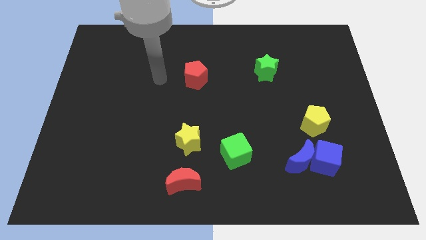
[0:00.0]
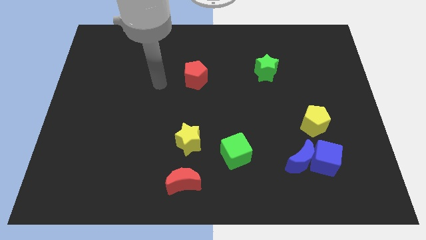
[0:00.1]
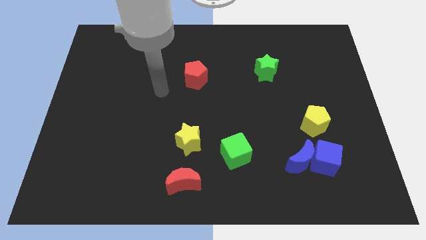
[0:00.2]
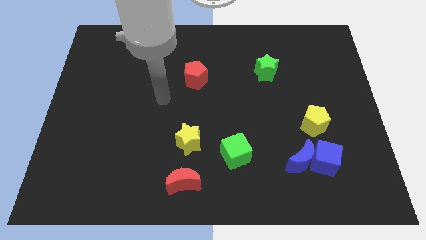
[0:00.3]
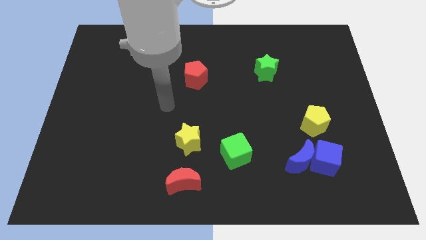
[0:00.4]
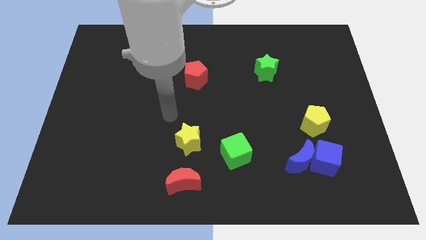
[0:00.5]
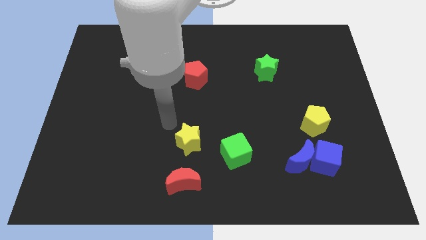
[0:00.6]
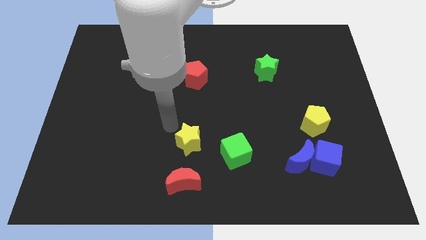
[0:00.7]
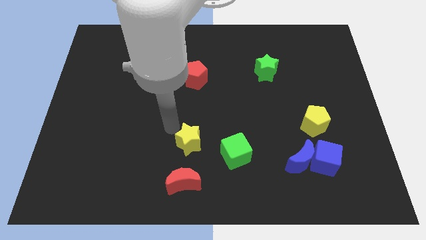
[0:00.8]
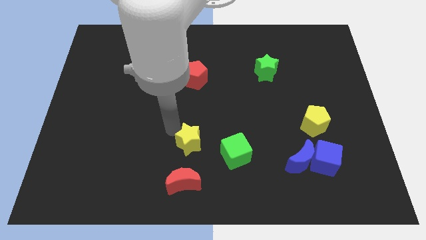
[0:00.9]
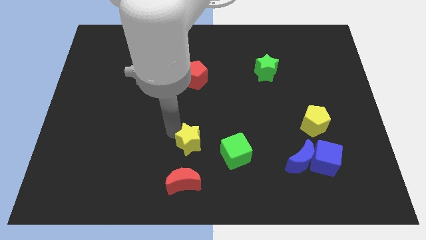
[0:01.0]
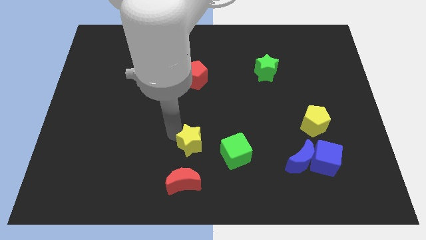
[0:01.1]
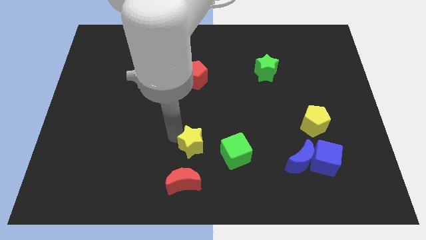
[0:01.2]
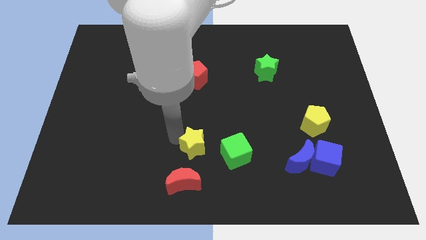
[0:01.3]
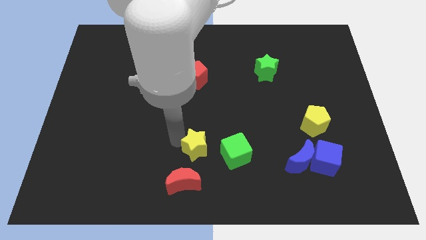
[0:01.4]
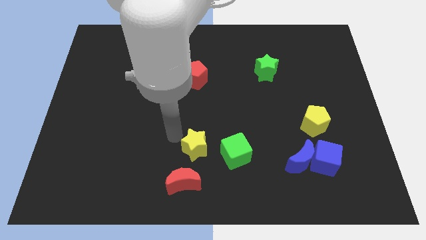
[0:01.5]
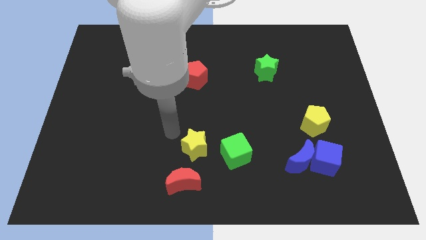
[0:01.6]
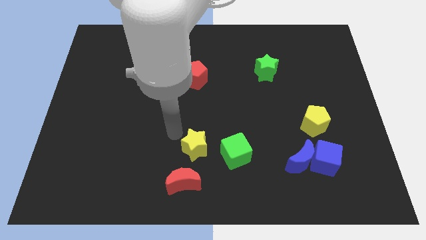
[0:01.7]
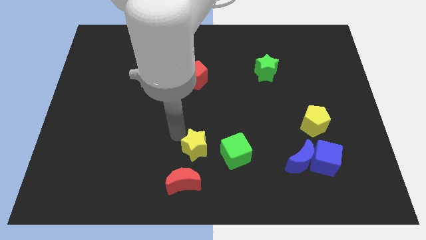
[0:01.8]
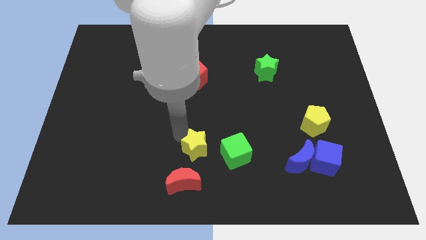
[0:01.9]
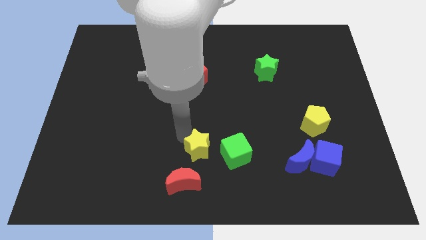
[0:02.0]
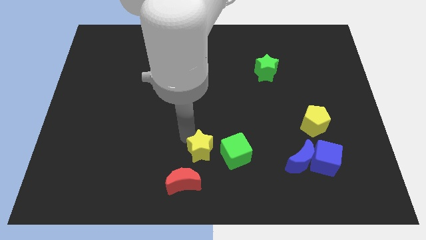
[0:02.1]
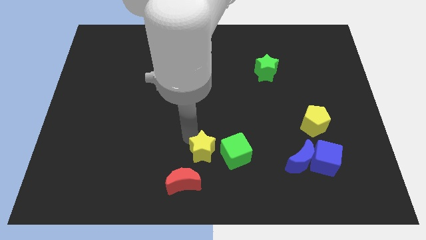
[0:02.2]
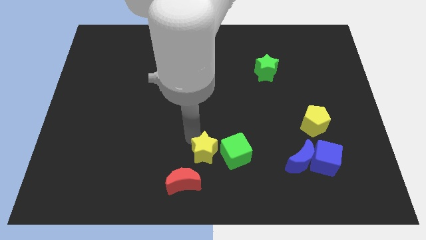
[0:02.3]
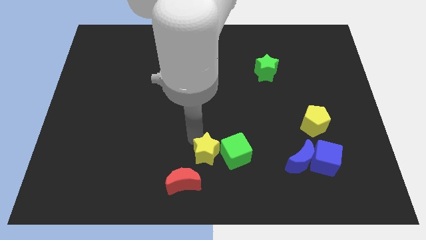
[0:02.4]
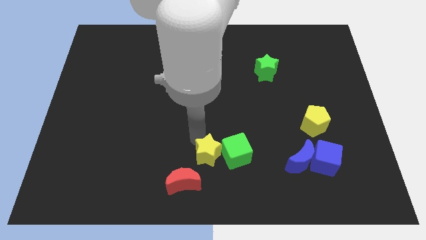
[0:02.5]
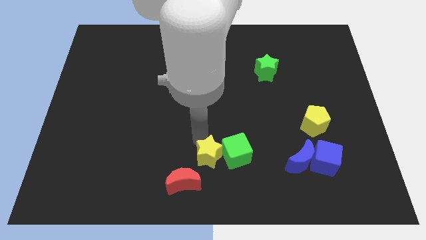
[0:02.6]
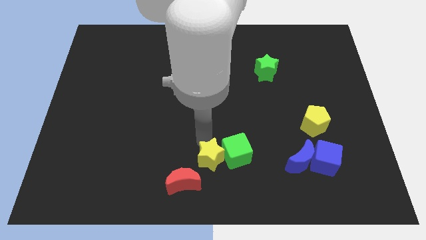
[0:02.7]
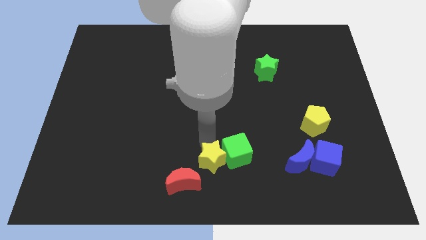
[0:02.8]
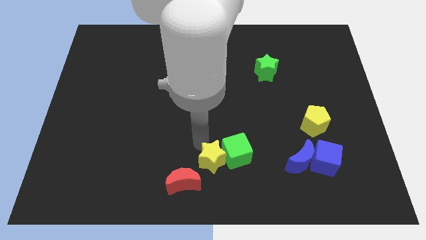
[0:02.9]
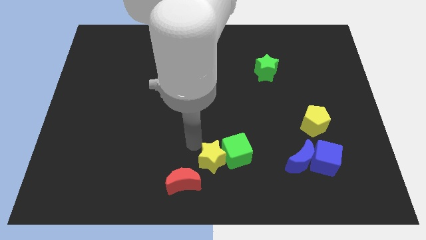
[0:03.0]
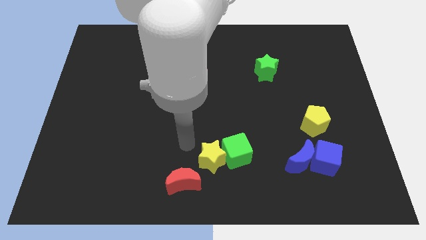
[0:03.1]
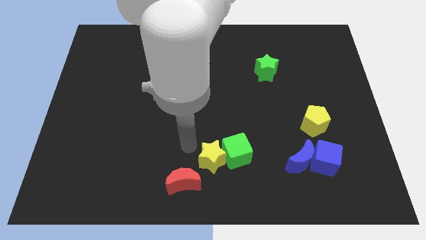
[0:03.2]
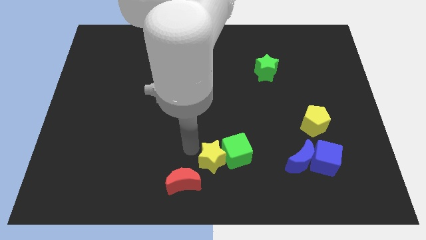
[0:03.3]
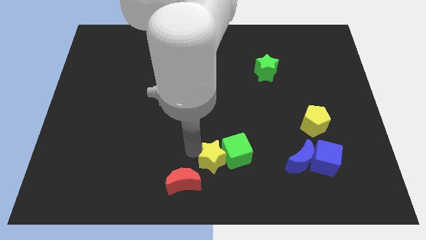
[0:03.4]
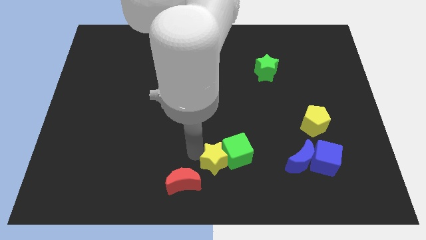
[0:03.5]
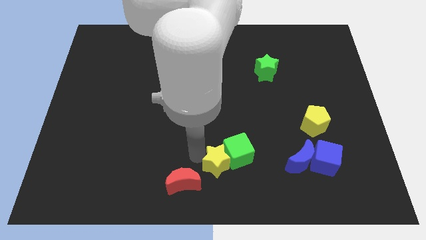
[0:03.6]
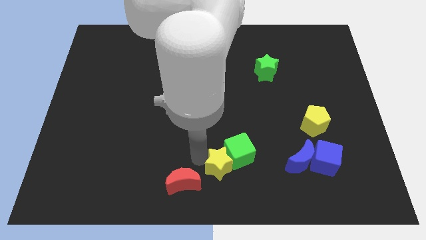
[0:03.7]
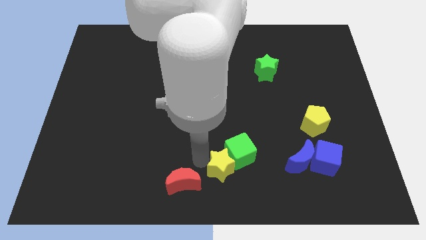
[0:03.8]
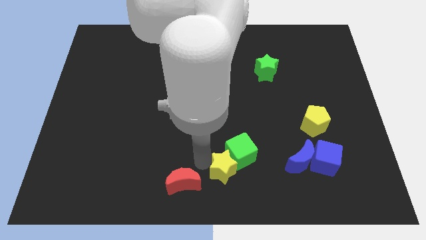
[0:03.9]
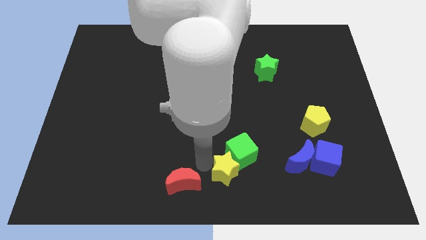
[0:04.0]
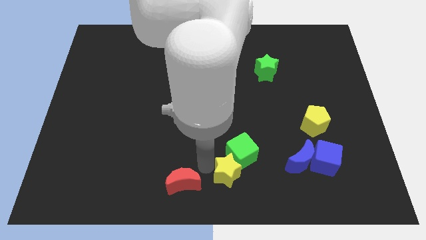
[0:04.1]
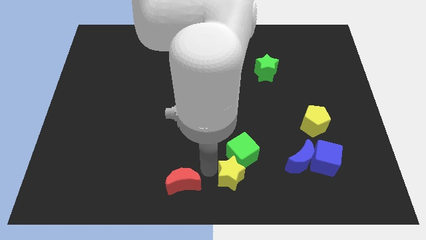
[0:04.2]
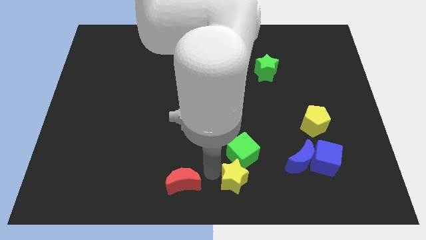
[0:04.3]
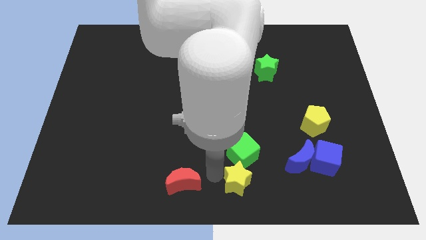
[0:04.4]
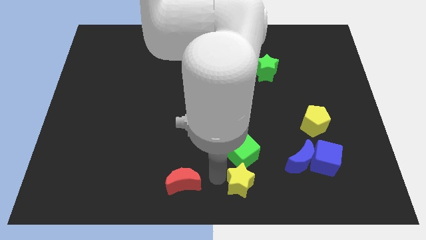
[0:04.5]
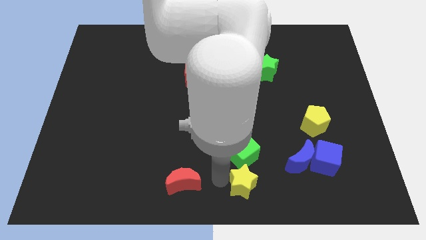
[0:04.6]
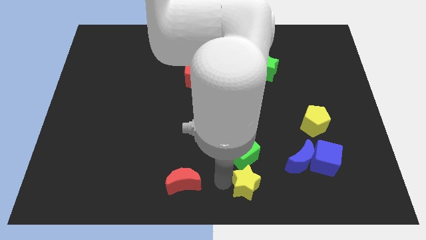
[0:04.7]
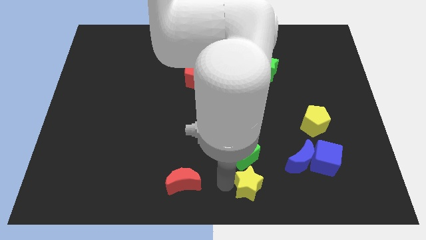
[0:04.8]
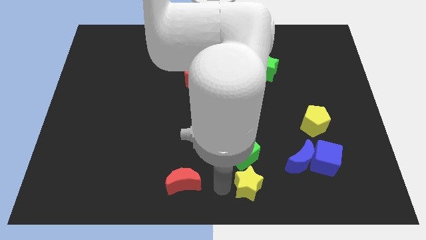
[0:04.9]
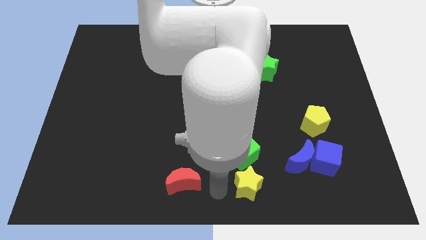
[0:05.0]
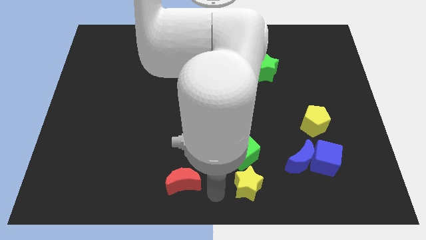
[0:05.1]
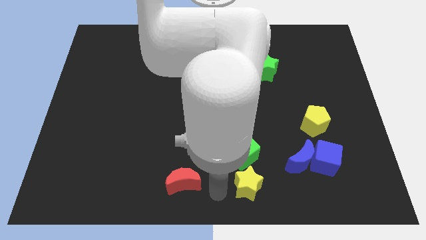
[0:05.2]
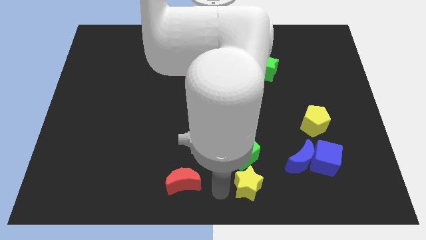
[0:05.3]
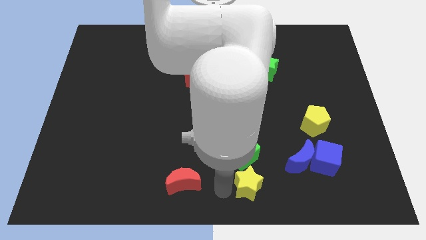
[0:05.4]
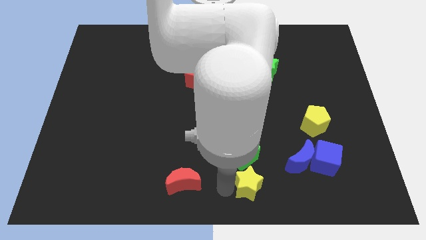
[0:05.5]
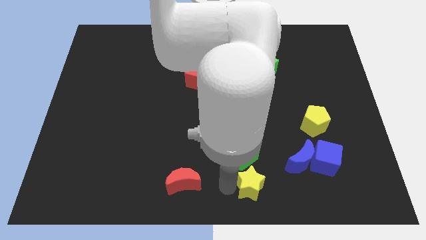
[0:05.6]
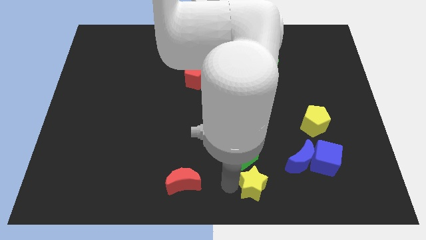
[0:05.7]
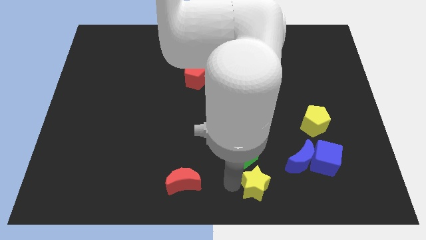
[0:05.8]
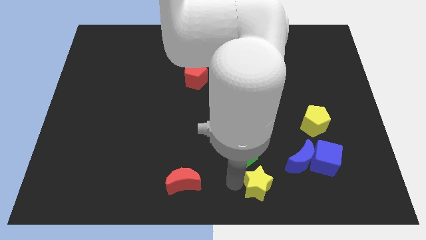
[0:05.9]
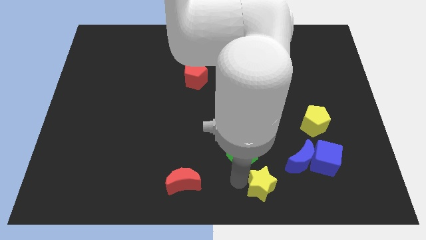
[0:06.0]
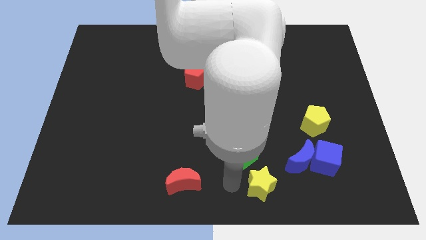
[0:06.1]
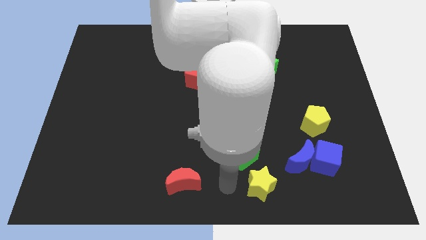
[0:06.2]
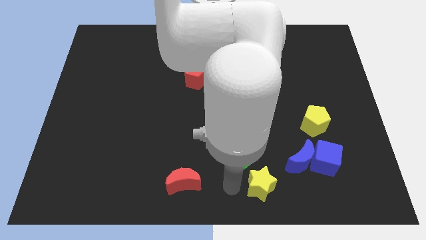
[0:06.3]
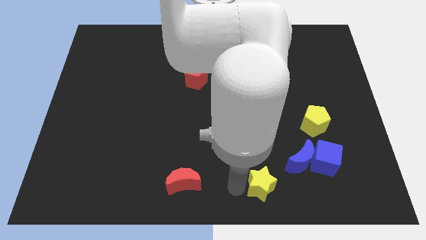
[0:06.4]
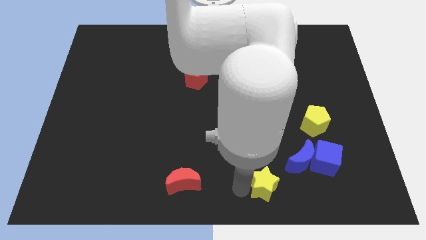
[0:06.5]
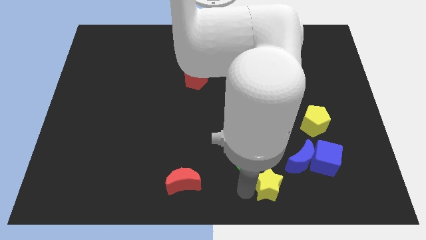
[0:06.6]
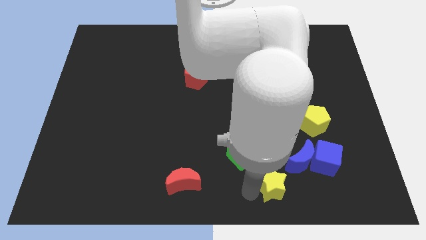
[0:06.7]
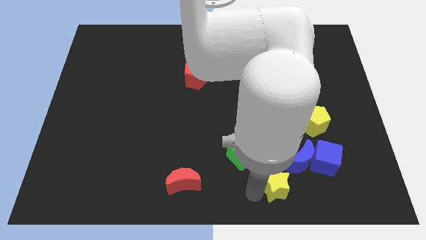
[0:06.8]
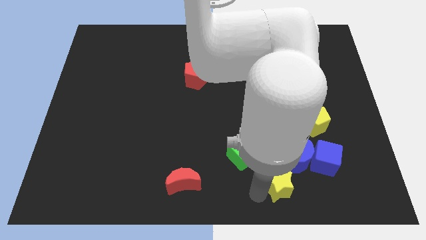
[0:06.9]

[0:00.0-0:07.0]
slide the yellow star to the bottom left side of the blue cube
